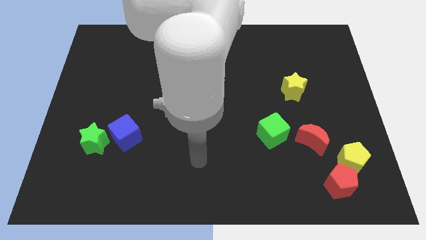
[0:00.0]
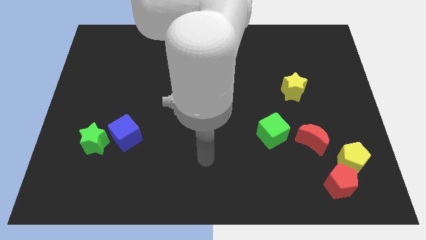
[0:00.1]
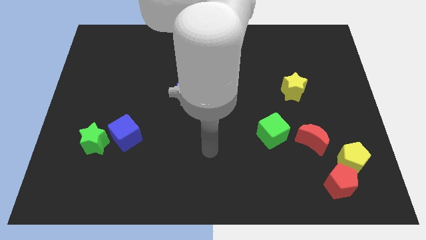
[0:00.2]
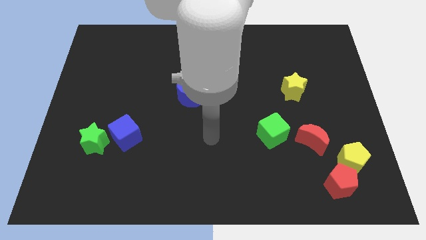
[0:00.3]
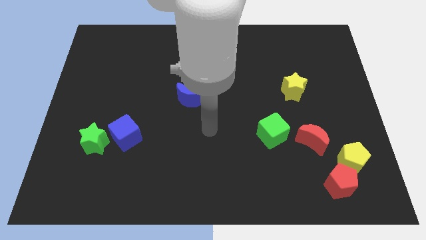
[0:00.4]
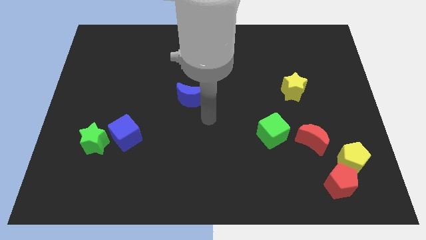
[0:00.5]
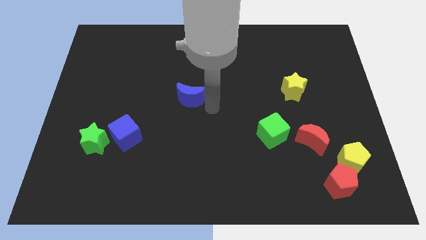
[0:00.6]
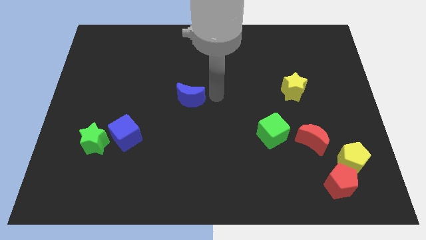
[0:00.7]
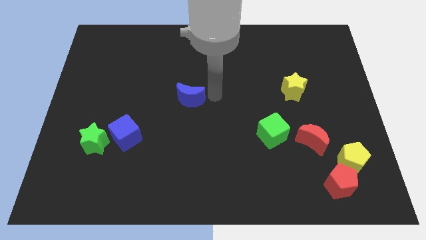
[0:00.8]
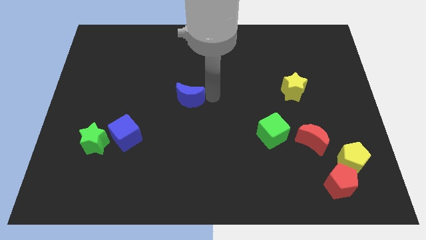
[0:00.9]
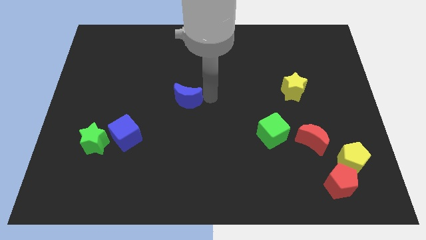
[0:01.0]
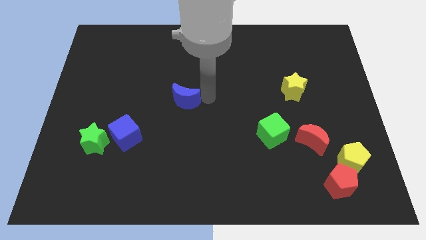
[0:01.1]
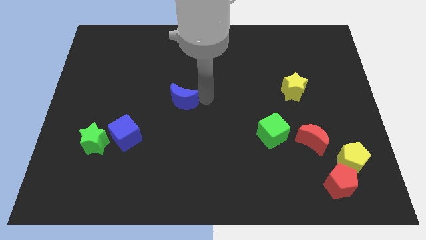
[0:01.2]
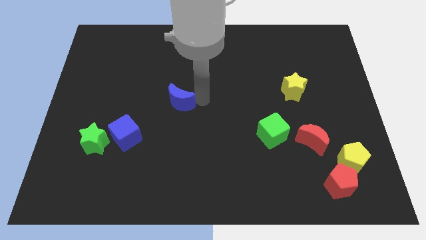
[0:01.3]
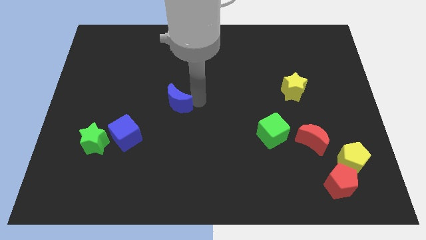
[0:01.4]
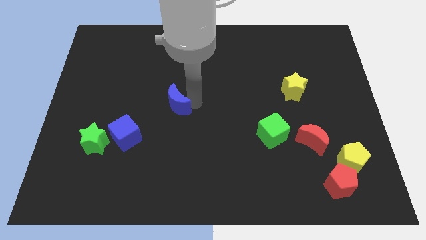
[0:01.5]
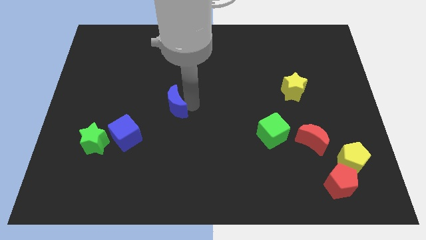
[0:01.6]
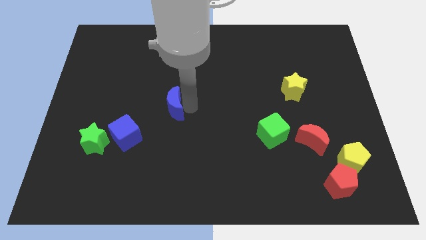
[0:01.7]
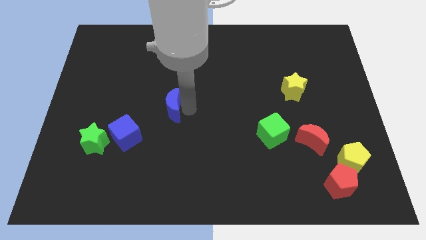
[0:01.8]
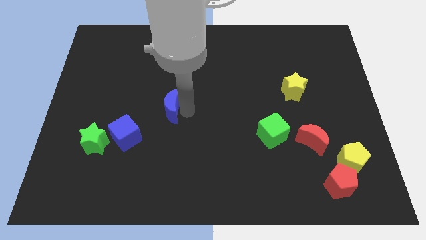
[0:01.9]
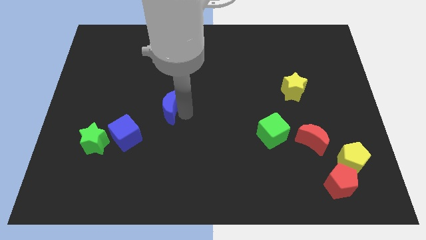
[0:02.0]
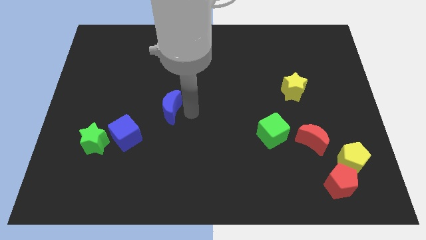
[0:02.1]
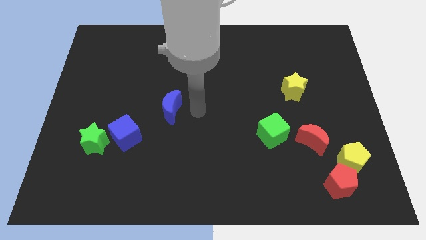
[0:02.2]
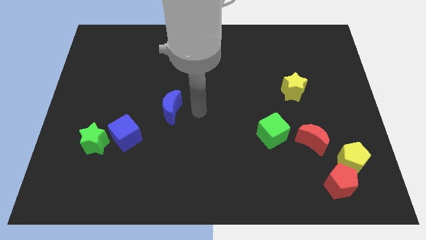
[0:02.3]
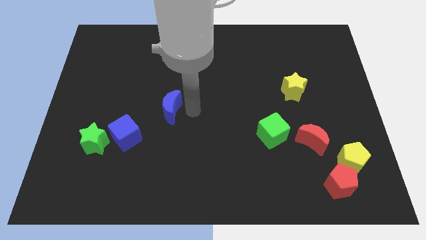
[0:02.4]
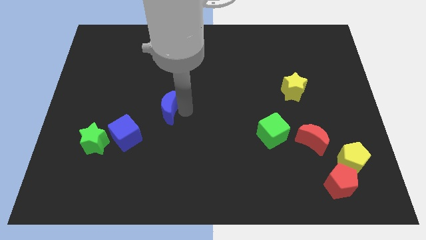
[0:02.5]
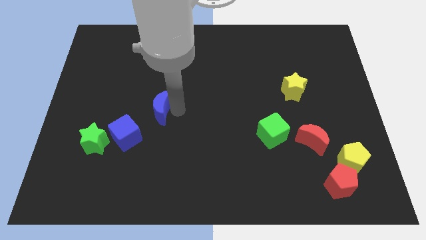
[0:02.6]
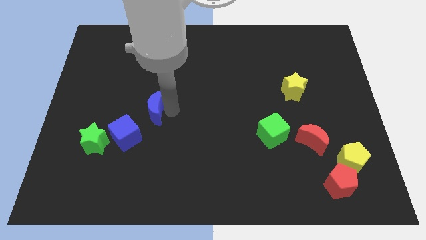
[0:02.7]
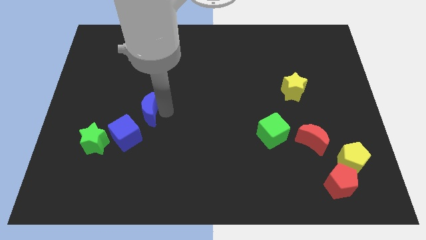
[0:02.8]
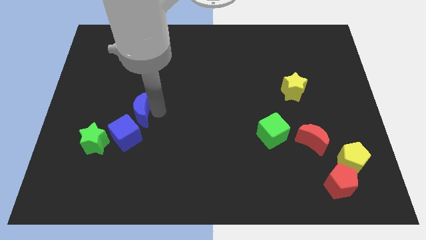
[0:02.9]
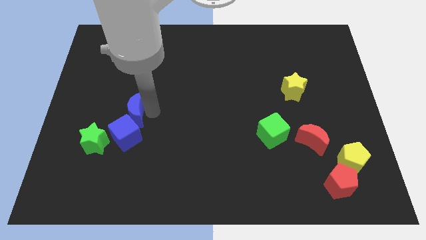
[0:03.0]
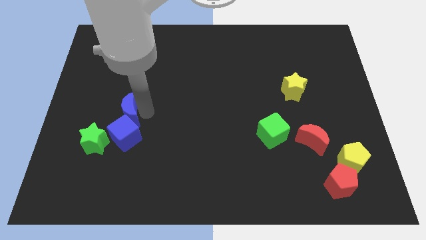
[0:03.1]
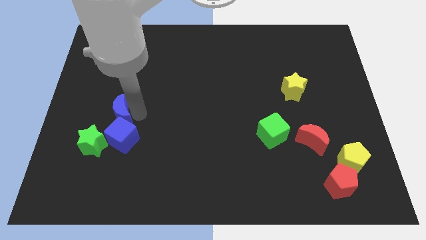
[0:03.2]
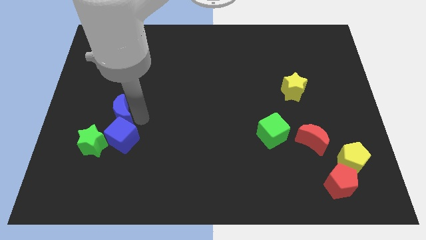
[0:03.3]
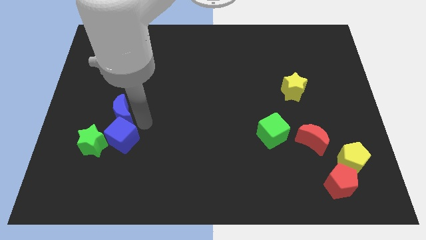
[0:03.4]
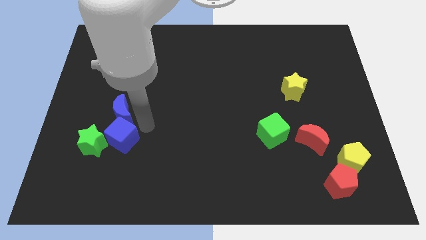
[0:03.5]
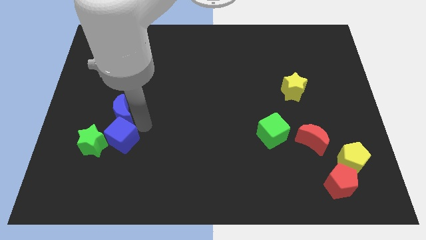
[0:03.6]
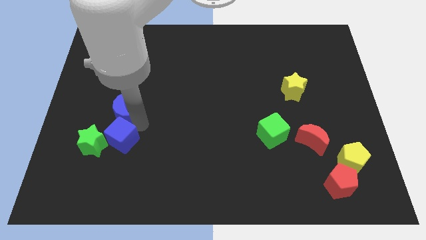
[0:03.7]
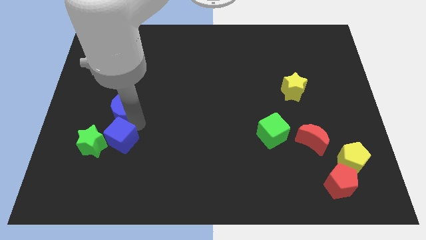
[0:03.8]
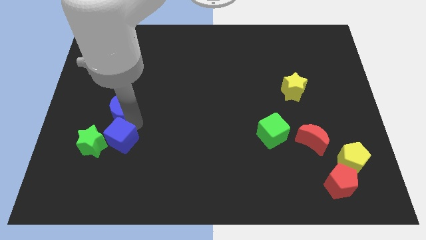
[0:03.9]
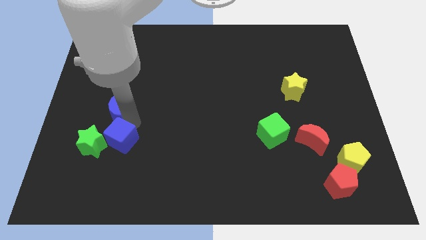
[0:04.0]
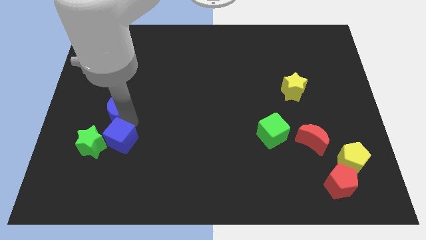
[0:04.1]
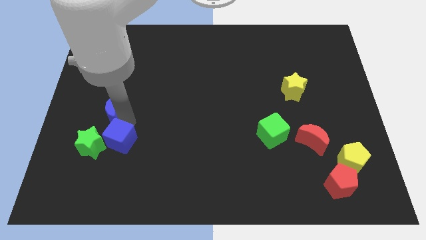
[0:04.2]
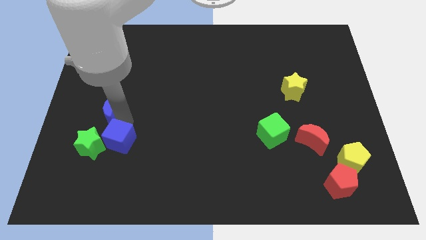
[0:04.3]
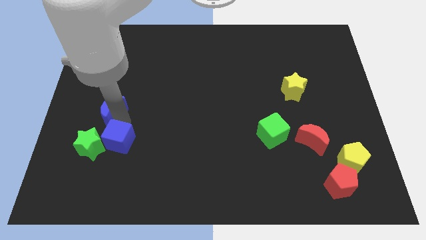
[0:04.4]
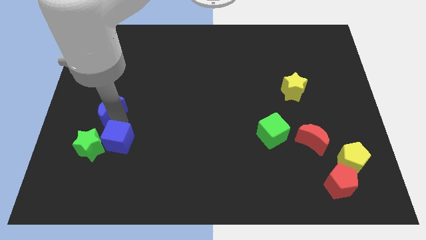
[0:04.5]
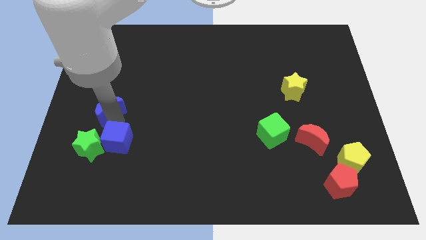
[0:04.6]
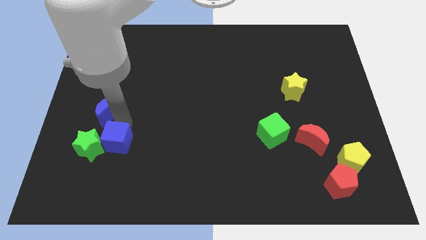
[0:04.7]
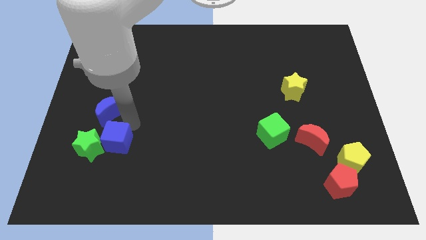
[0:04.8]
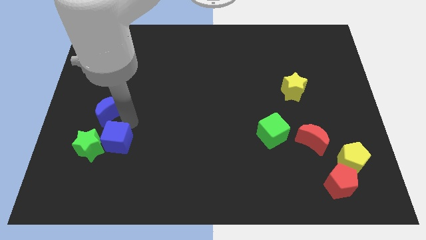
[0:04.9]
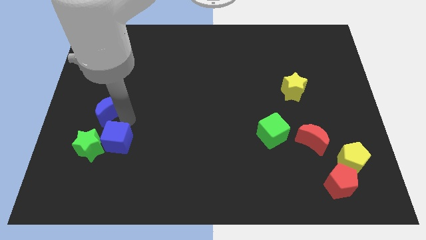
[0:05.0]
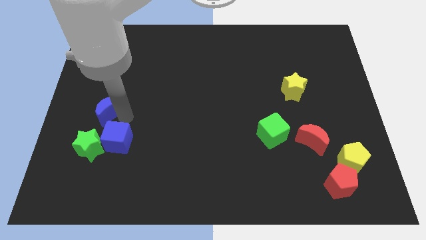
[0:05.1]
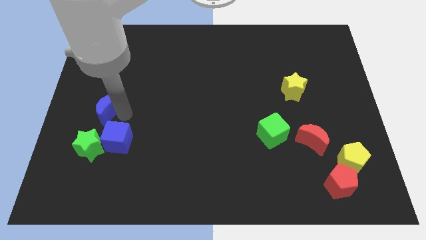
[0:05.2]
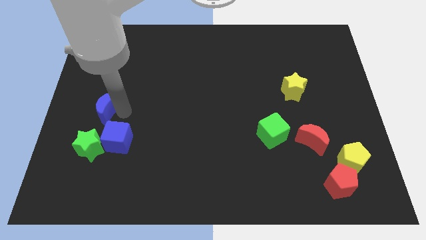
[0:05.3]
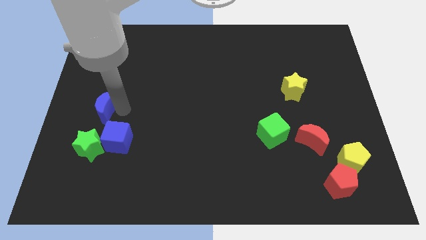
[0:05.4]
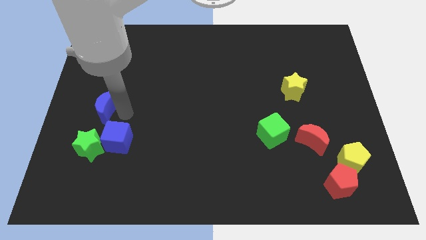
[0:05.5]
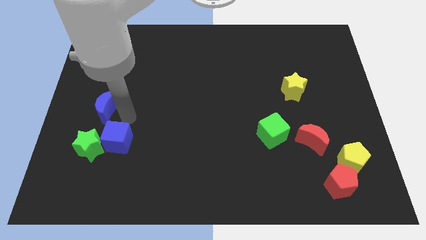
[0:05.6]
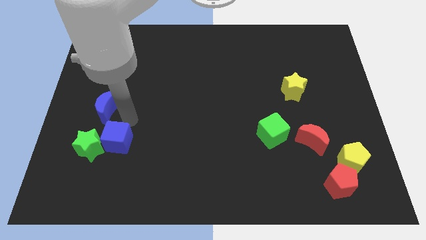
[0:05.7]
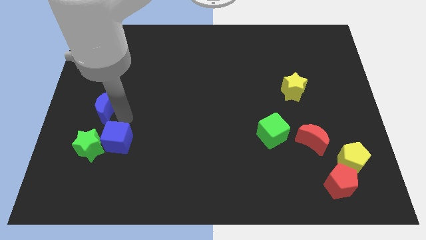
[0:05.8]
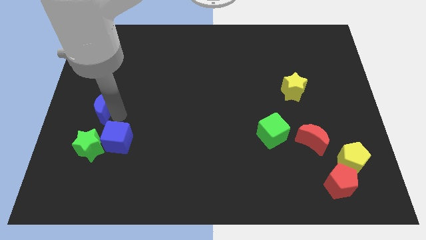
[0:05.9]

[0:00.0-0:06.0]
move the blue moon to the left side

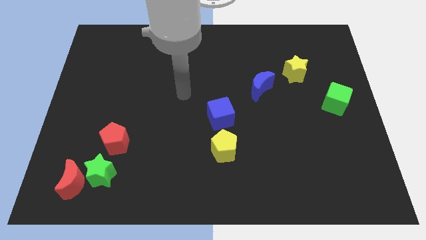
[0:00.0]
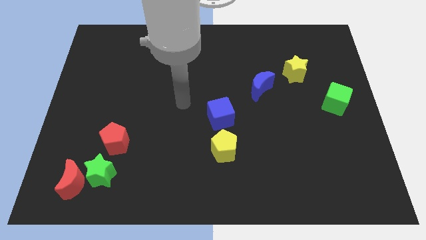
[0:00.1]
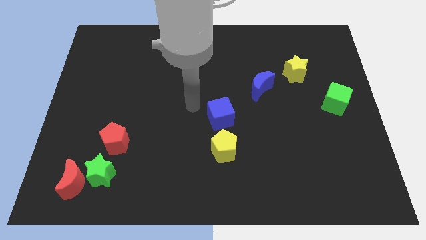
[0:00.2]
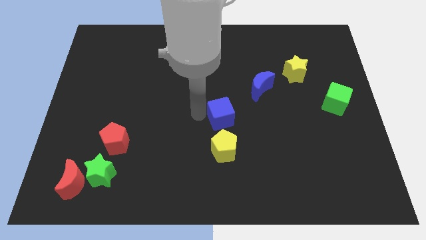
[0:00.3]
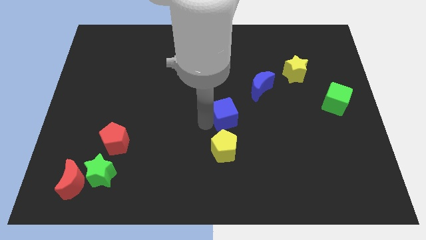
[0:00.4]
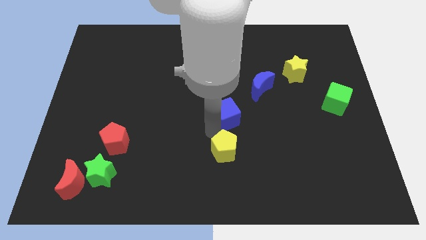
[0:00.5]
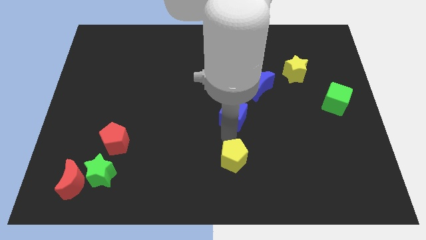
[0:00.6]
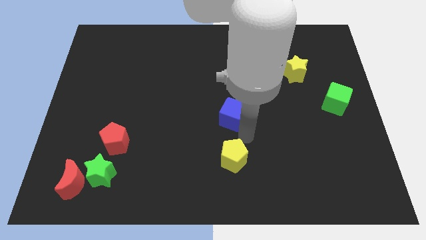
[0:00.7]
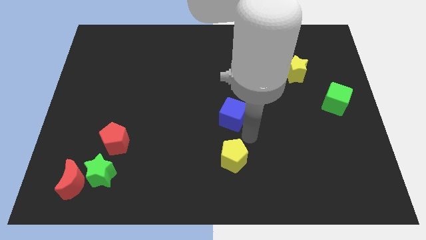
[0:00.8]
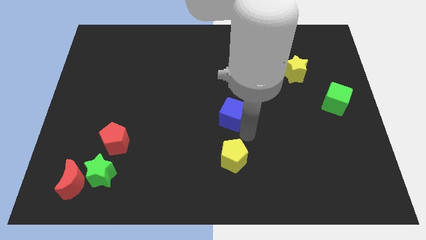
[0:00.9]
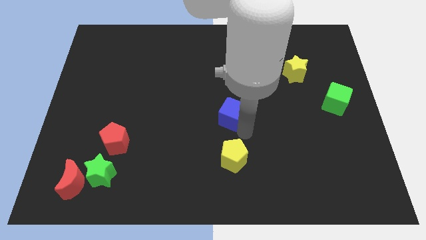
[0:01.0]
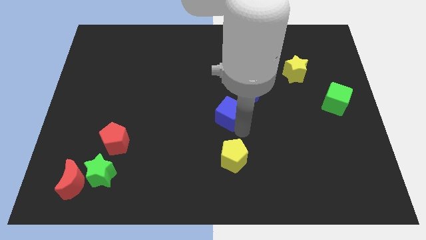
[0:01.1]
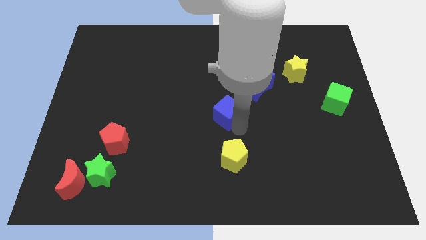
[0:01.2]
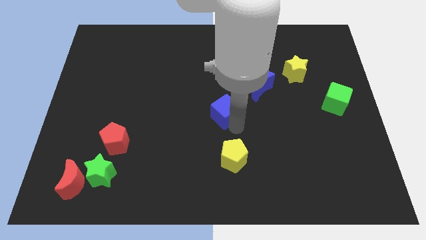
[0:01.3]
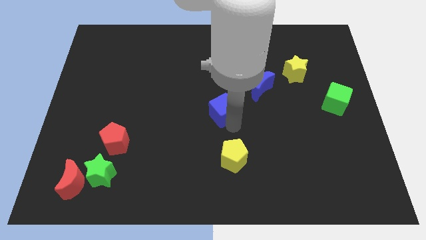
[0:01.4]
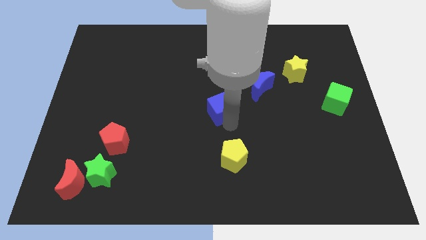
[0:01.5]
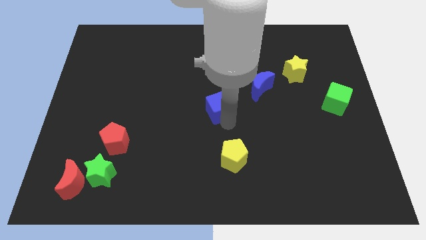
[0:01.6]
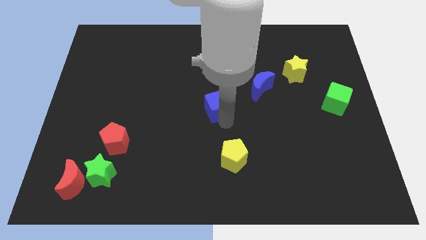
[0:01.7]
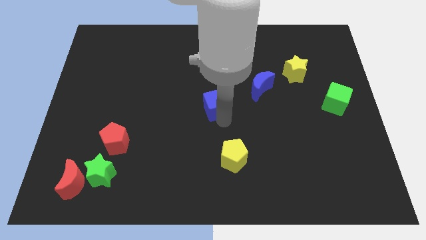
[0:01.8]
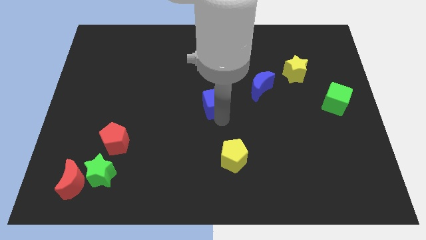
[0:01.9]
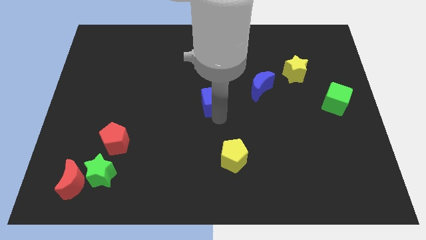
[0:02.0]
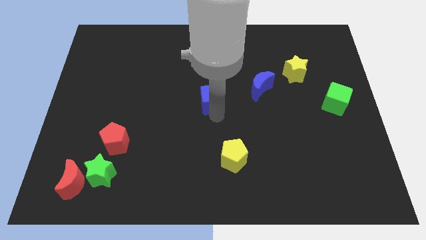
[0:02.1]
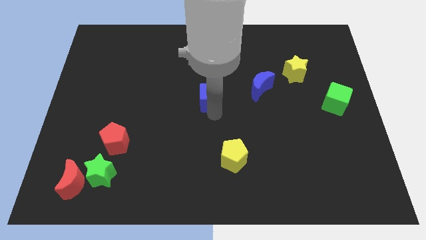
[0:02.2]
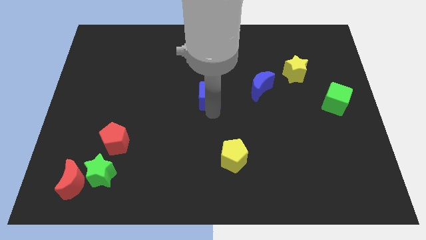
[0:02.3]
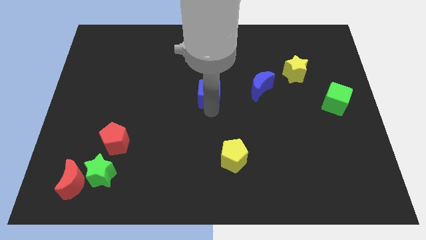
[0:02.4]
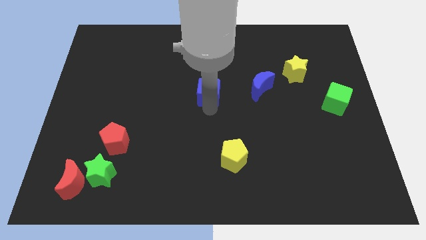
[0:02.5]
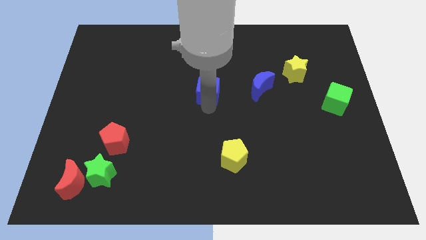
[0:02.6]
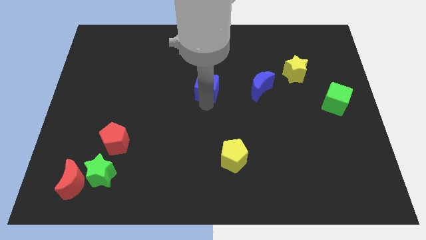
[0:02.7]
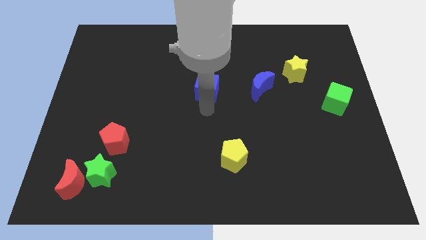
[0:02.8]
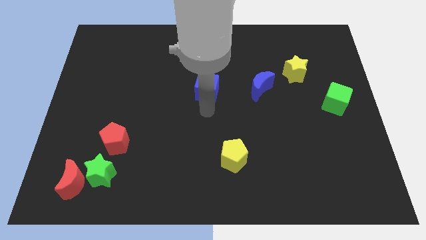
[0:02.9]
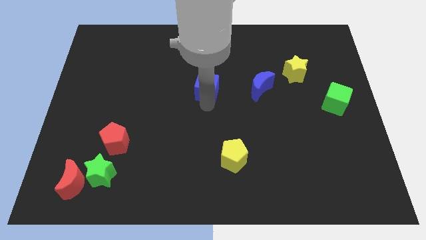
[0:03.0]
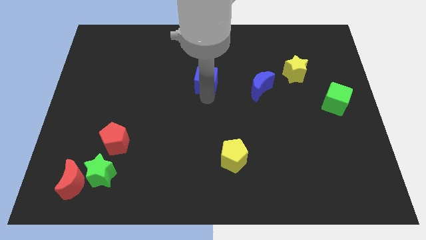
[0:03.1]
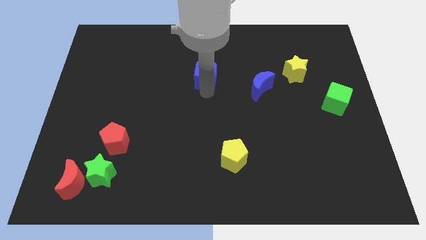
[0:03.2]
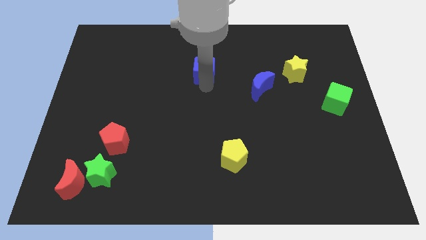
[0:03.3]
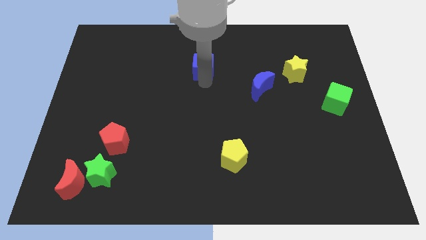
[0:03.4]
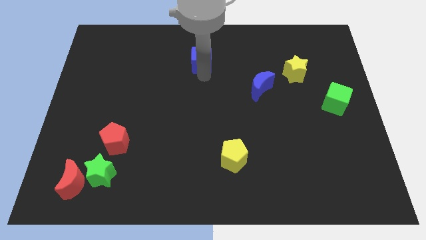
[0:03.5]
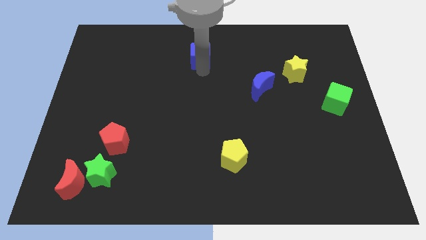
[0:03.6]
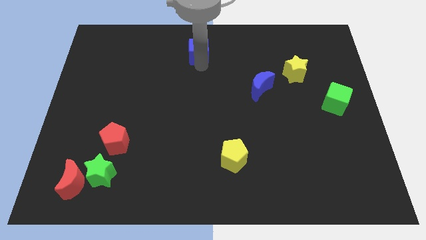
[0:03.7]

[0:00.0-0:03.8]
slide the blue cube to the towards your base
